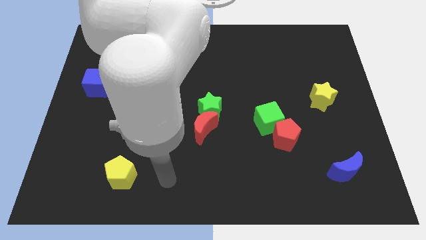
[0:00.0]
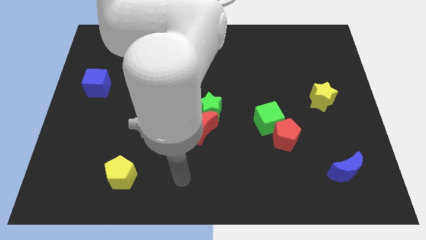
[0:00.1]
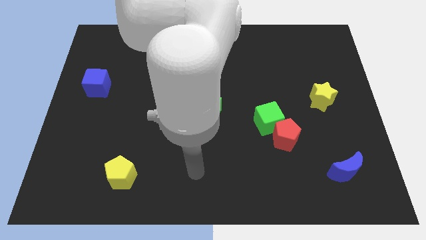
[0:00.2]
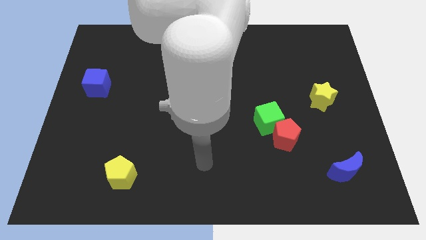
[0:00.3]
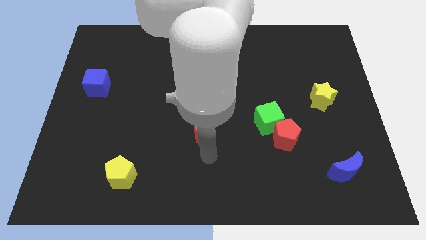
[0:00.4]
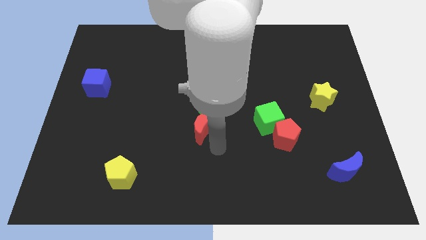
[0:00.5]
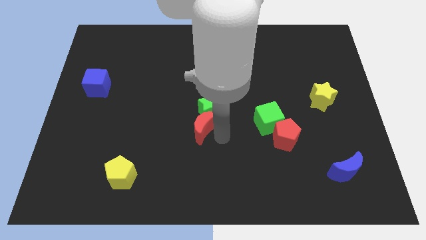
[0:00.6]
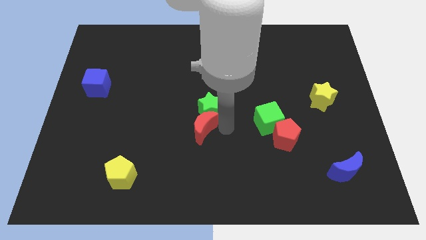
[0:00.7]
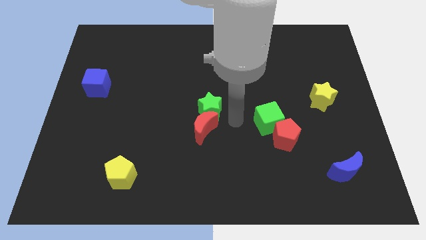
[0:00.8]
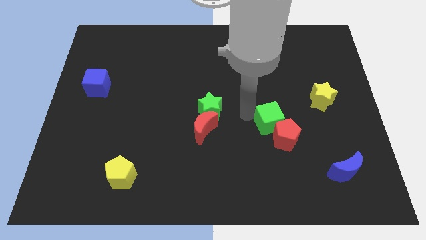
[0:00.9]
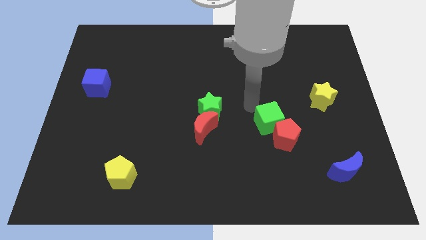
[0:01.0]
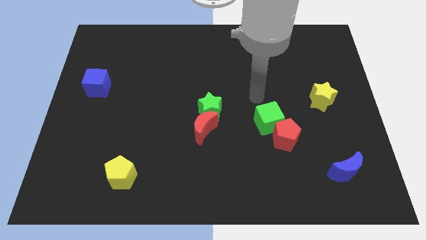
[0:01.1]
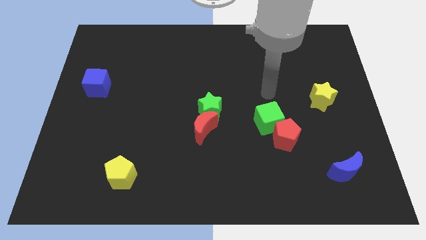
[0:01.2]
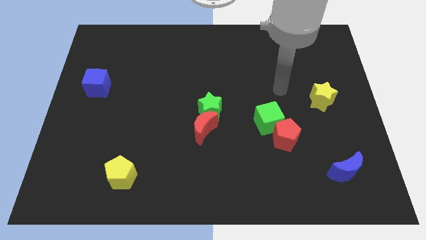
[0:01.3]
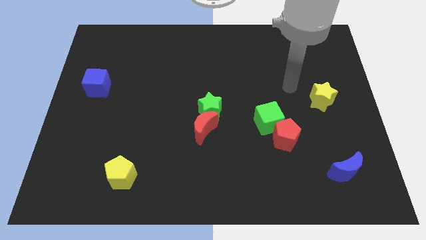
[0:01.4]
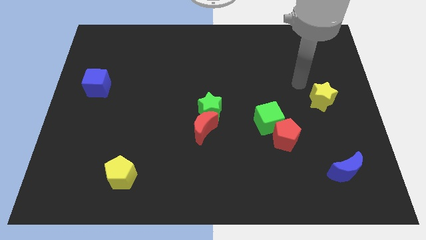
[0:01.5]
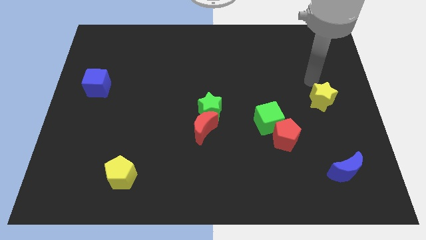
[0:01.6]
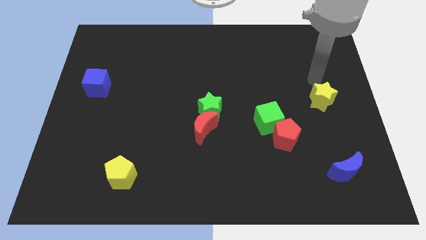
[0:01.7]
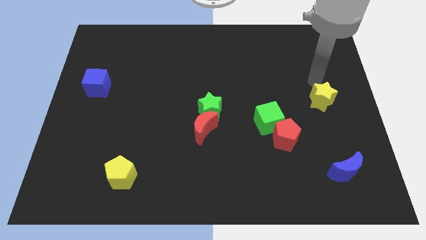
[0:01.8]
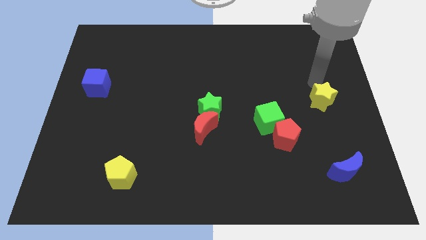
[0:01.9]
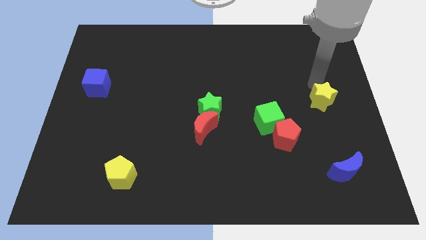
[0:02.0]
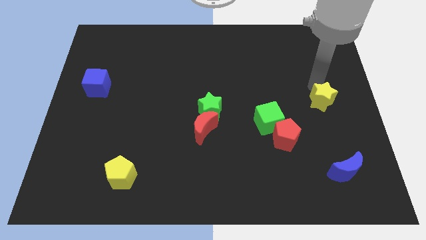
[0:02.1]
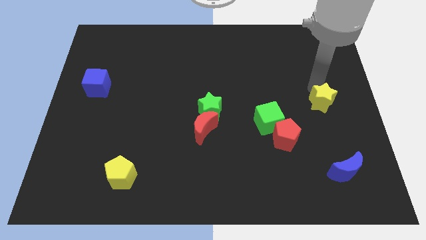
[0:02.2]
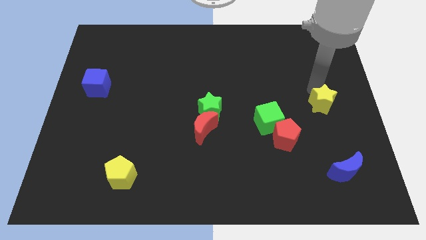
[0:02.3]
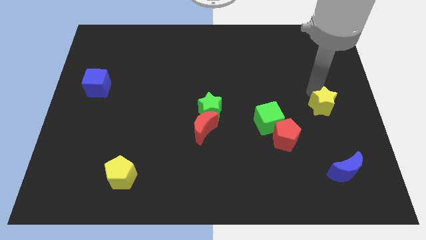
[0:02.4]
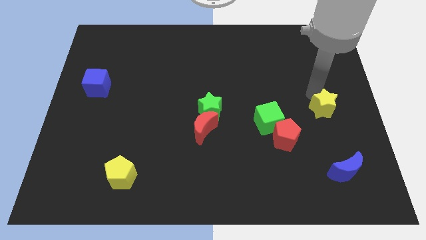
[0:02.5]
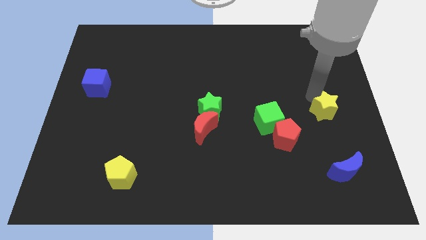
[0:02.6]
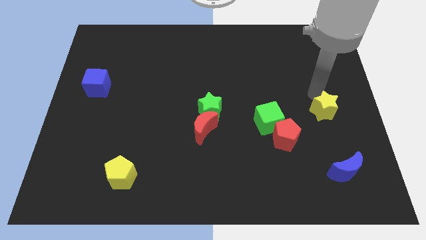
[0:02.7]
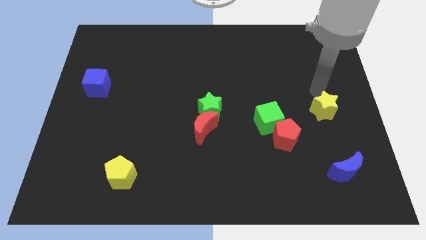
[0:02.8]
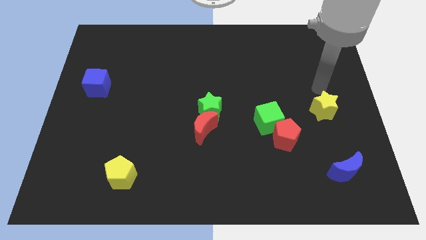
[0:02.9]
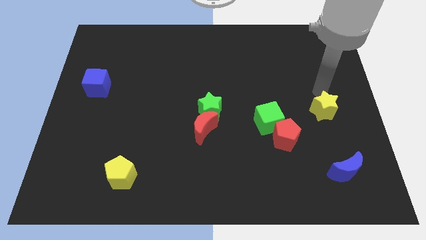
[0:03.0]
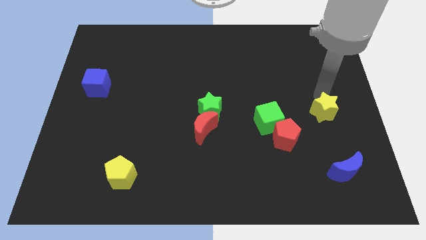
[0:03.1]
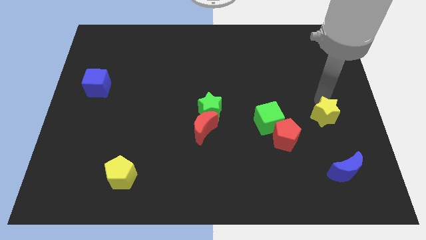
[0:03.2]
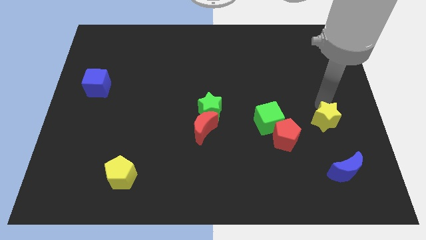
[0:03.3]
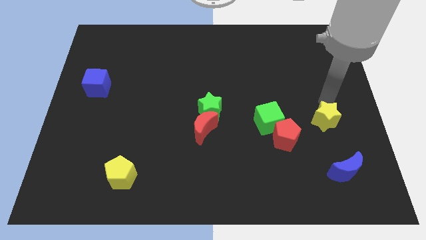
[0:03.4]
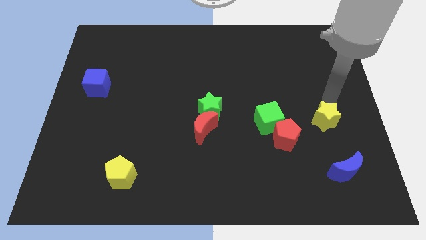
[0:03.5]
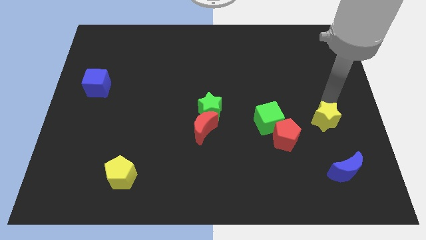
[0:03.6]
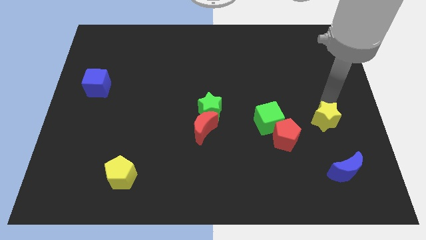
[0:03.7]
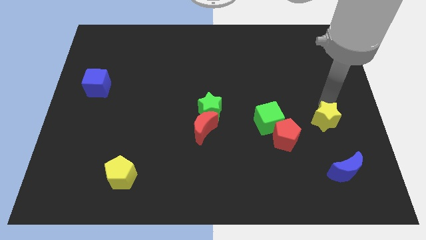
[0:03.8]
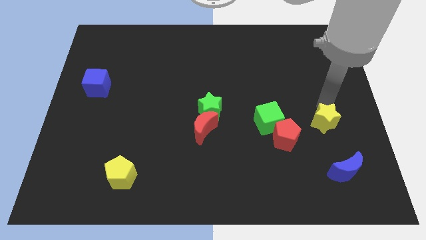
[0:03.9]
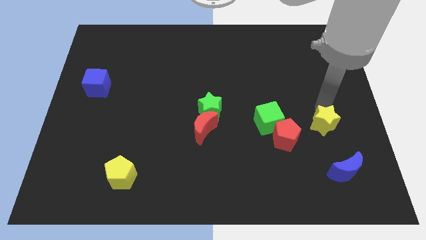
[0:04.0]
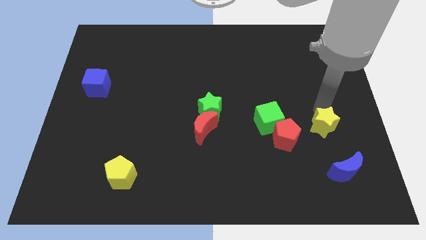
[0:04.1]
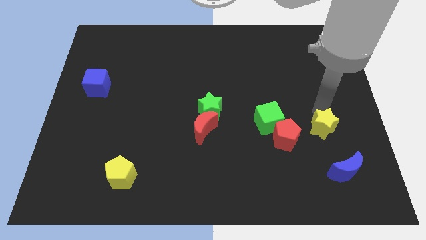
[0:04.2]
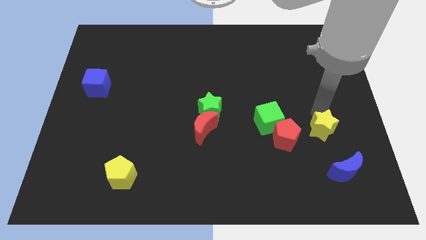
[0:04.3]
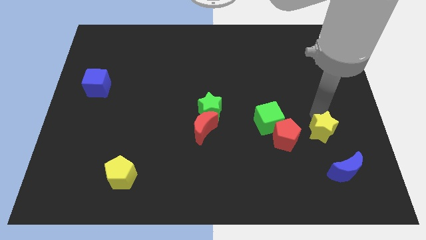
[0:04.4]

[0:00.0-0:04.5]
push the yellow star slightly downwards and left

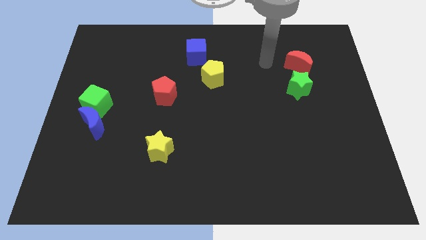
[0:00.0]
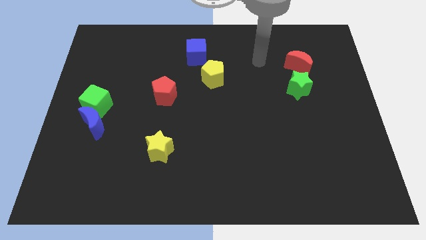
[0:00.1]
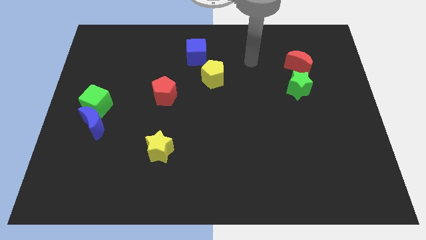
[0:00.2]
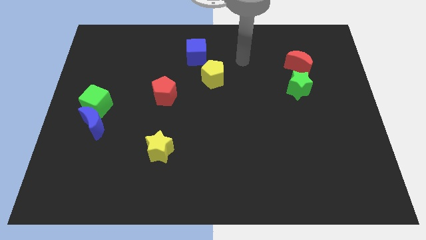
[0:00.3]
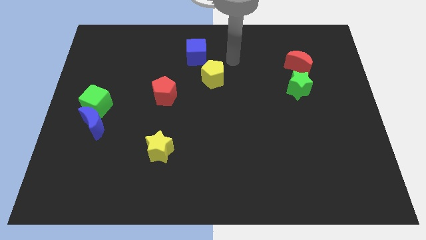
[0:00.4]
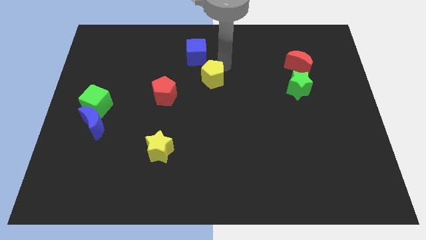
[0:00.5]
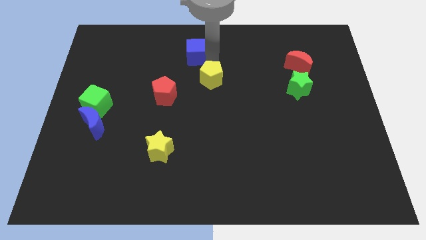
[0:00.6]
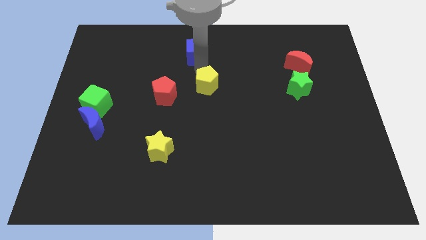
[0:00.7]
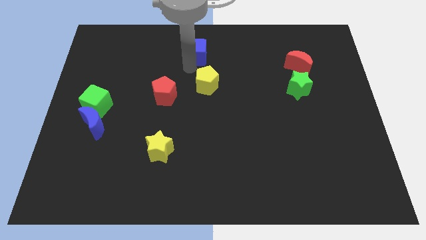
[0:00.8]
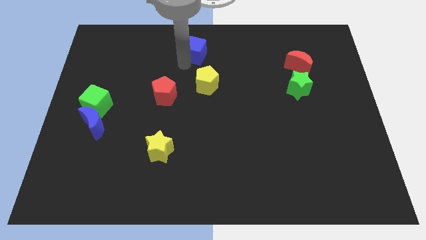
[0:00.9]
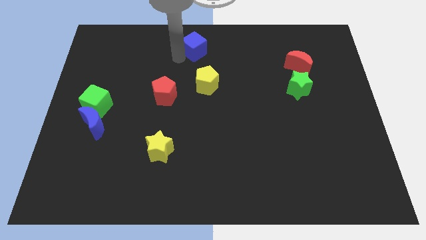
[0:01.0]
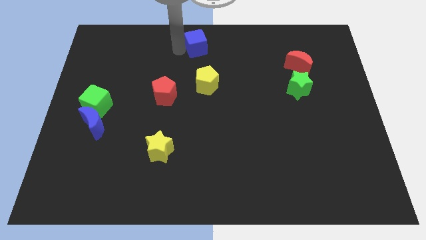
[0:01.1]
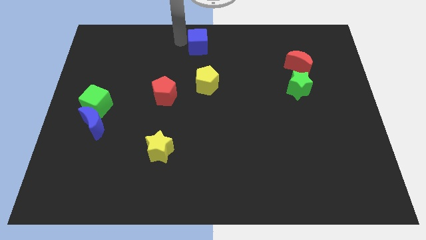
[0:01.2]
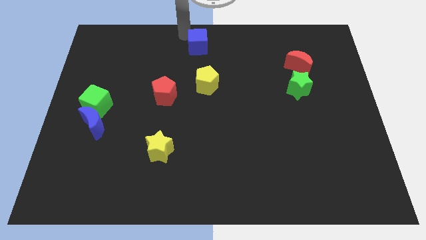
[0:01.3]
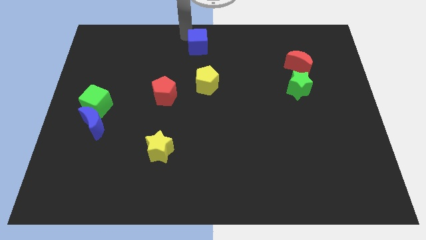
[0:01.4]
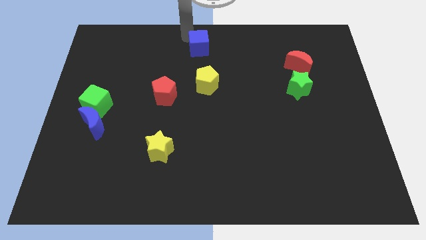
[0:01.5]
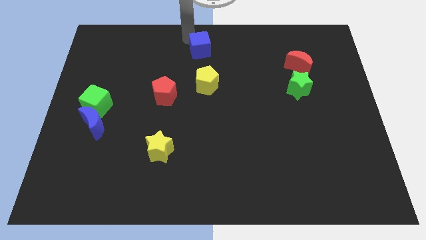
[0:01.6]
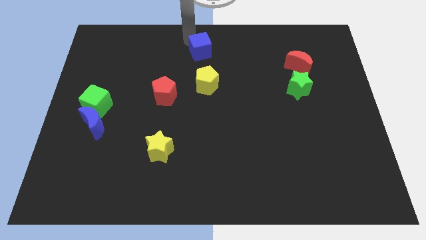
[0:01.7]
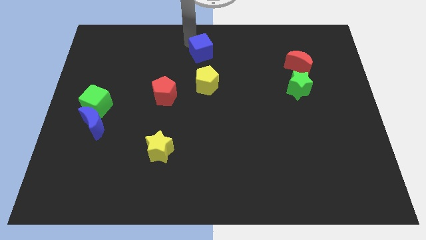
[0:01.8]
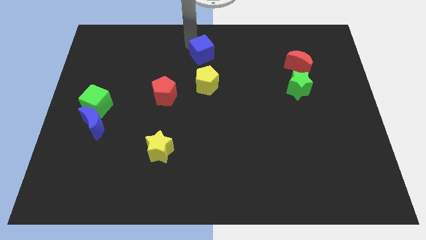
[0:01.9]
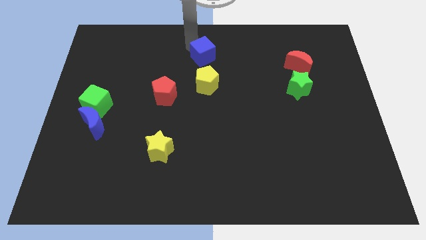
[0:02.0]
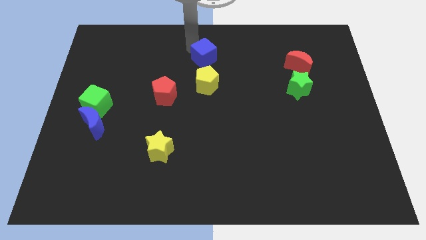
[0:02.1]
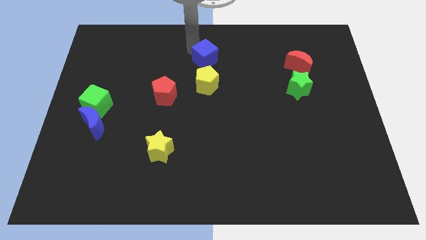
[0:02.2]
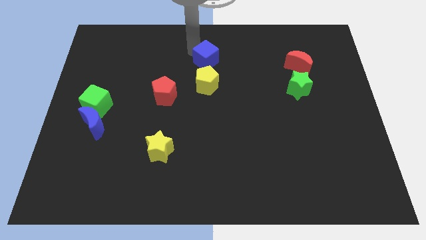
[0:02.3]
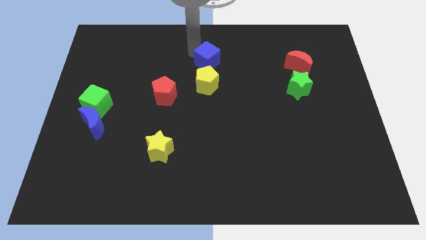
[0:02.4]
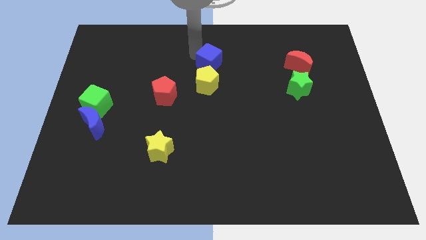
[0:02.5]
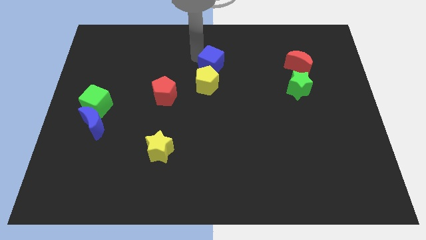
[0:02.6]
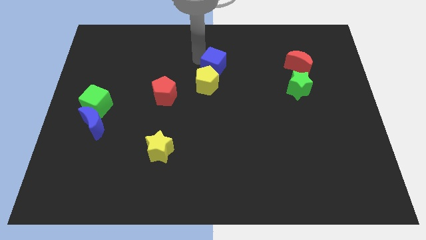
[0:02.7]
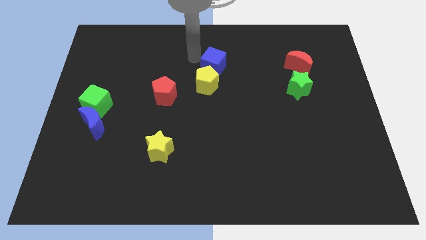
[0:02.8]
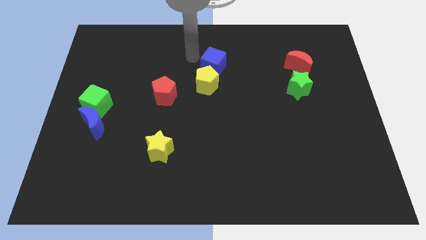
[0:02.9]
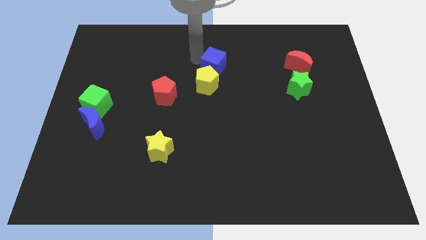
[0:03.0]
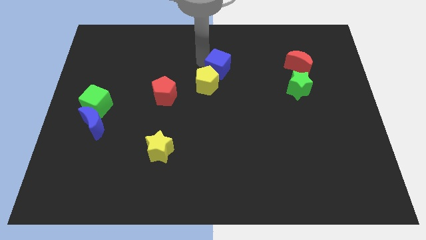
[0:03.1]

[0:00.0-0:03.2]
move the blue cube down and right a little

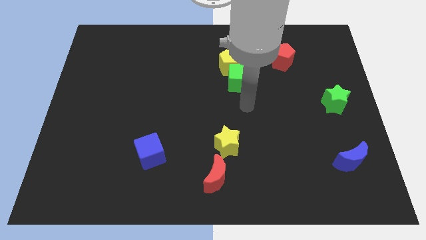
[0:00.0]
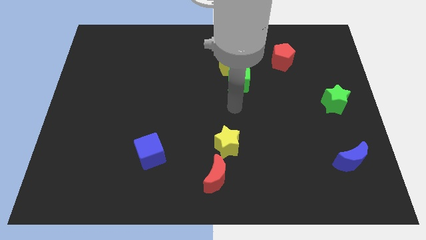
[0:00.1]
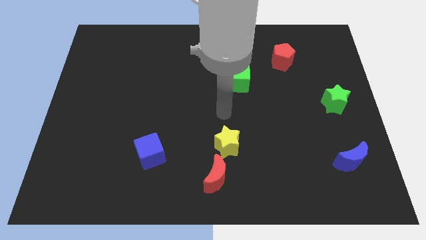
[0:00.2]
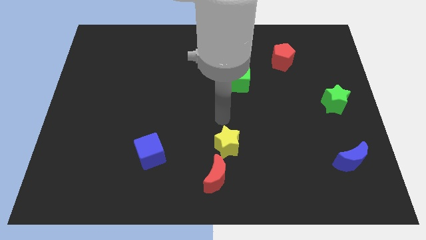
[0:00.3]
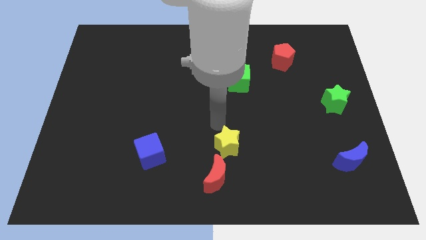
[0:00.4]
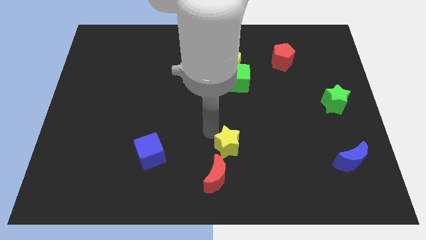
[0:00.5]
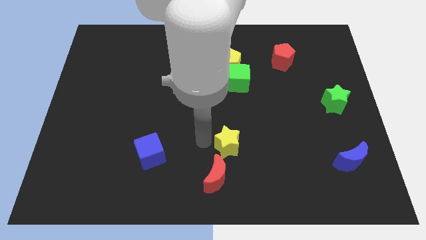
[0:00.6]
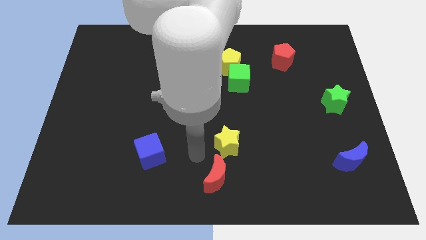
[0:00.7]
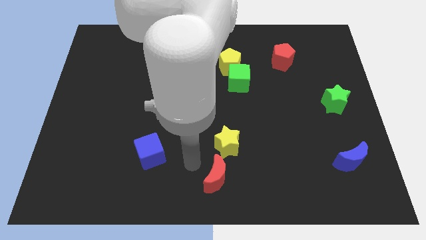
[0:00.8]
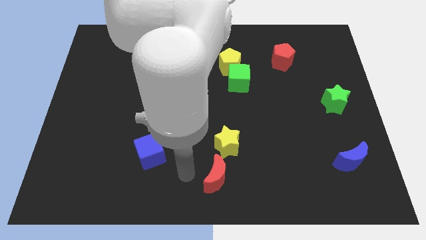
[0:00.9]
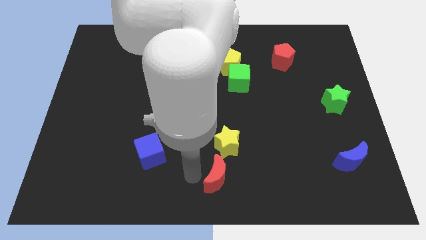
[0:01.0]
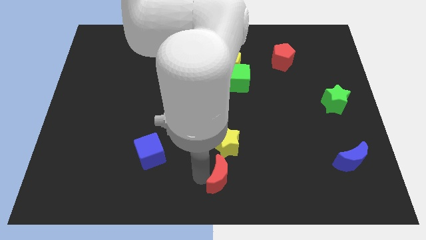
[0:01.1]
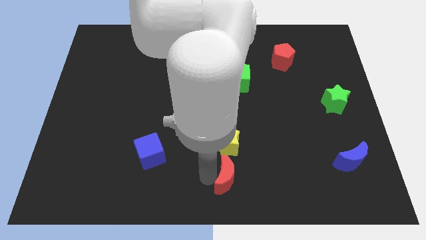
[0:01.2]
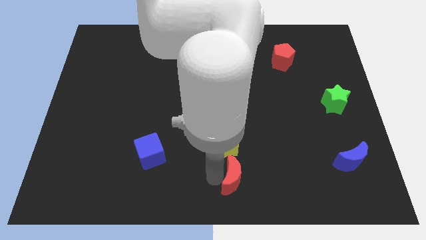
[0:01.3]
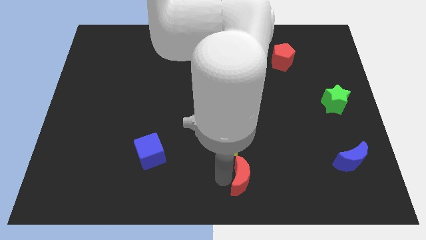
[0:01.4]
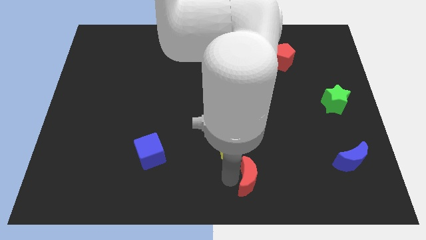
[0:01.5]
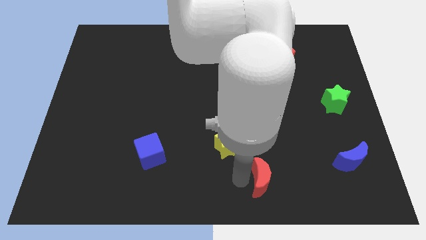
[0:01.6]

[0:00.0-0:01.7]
slide the red moon a little to the right
